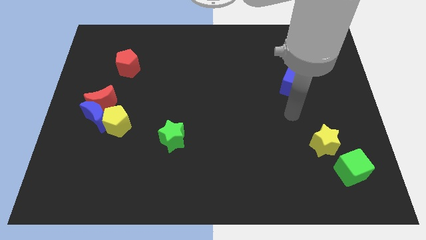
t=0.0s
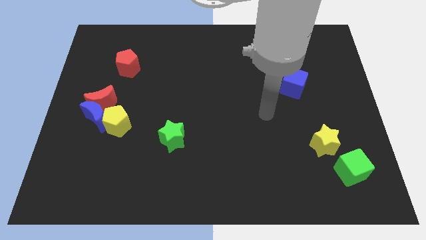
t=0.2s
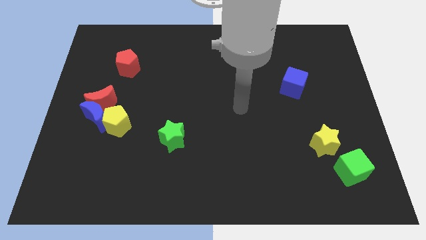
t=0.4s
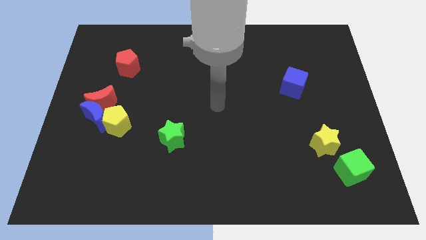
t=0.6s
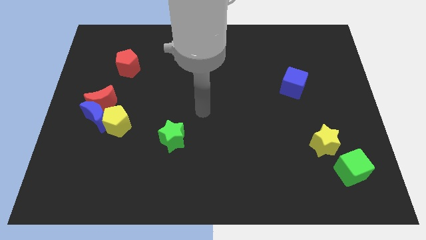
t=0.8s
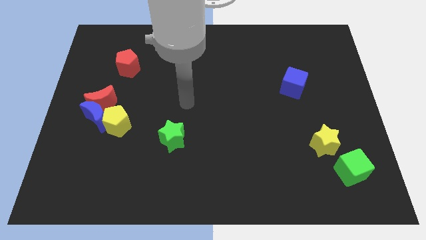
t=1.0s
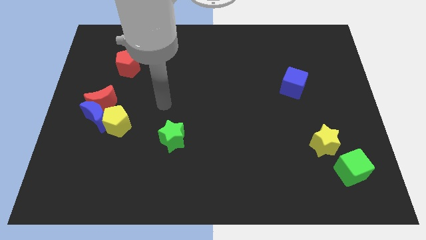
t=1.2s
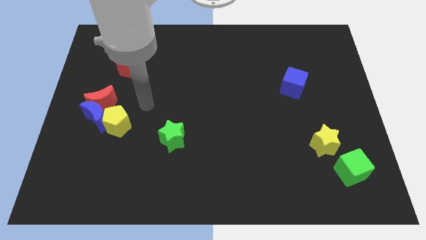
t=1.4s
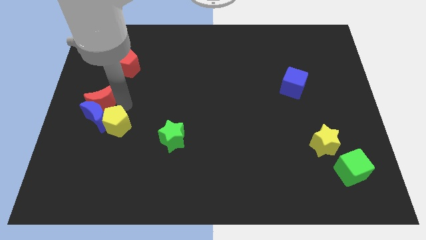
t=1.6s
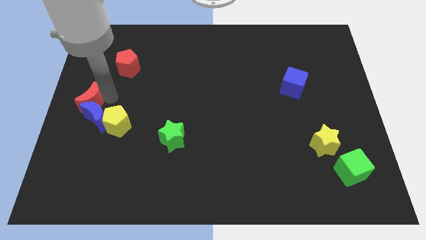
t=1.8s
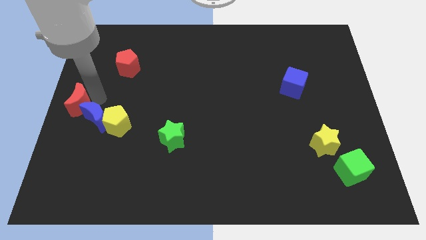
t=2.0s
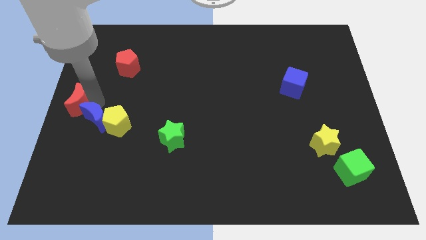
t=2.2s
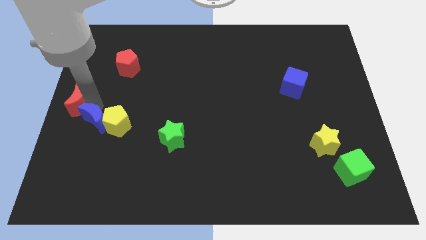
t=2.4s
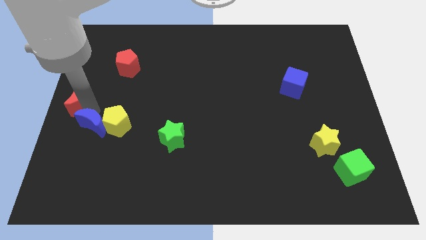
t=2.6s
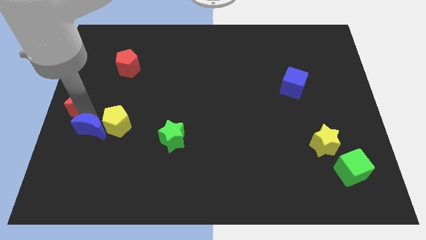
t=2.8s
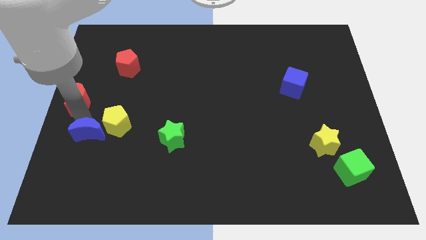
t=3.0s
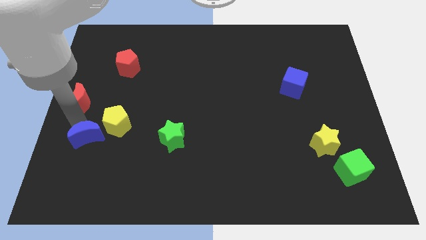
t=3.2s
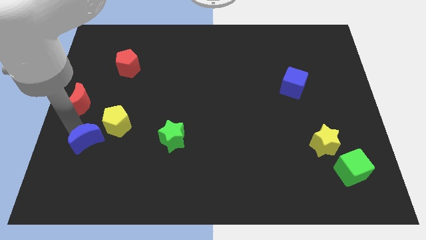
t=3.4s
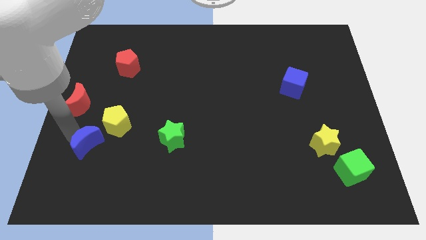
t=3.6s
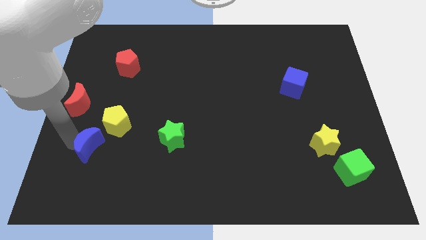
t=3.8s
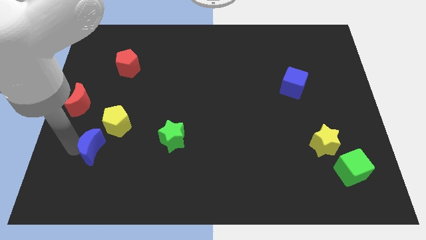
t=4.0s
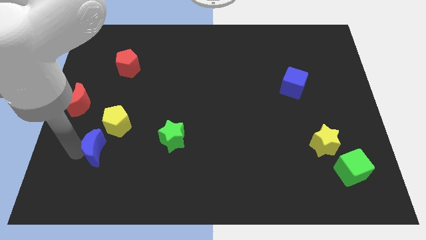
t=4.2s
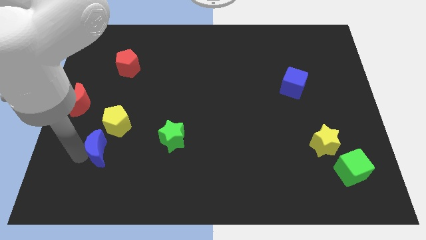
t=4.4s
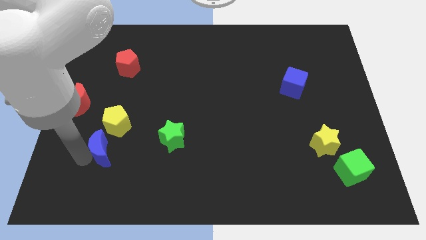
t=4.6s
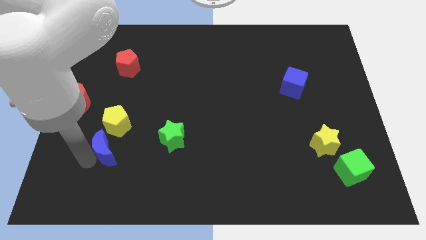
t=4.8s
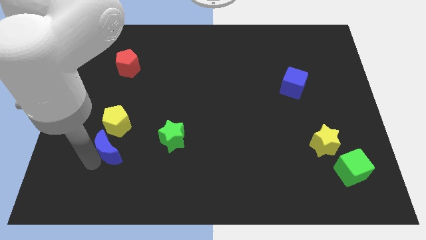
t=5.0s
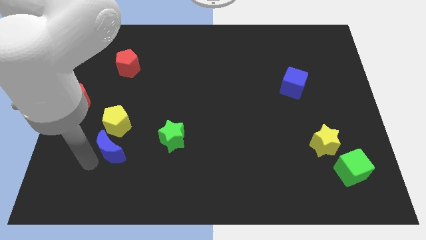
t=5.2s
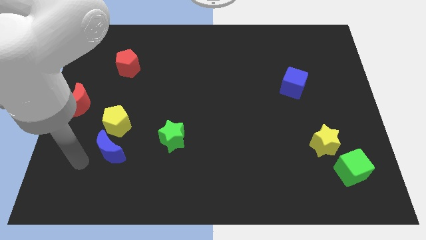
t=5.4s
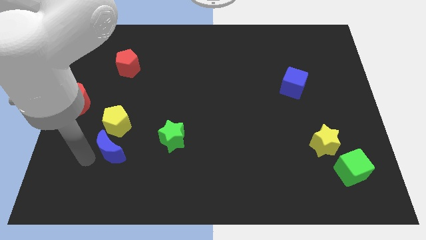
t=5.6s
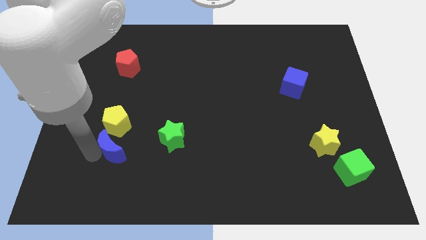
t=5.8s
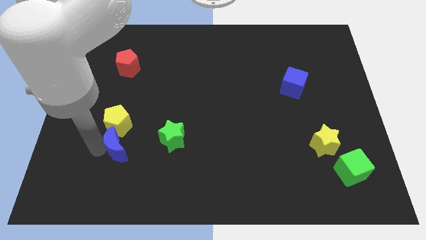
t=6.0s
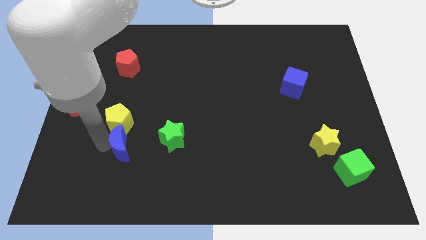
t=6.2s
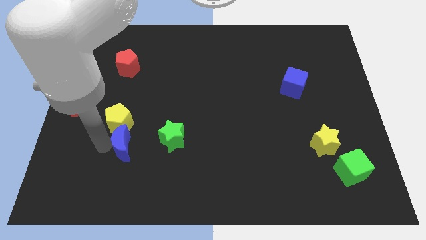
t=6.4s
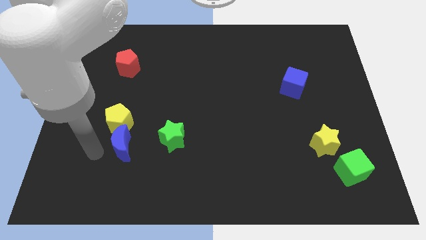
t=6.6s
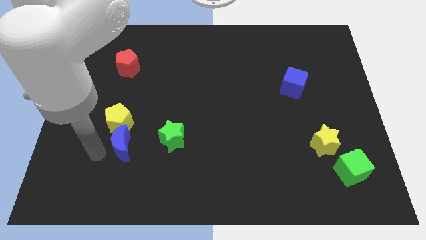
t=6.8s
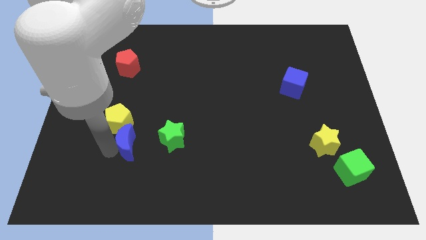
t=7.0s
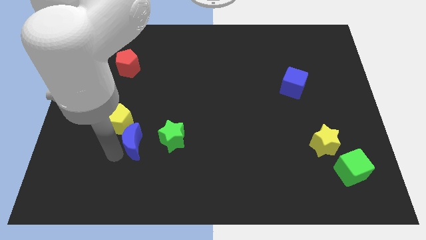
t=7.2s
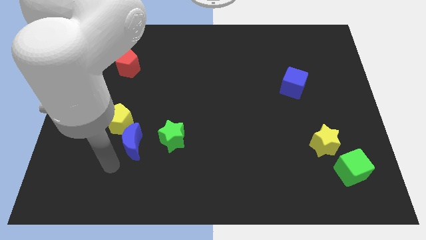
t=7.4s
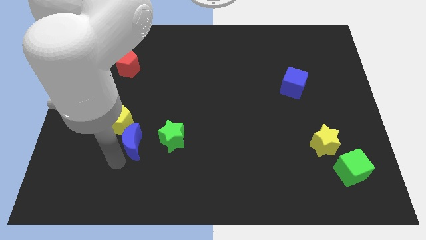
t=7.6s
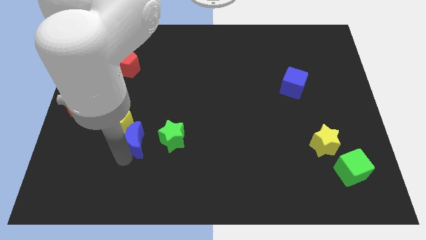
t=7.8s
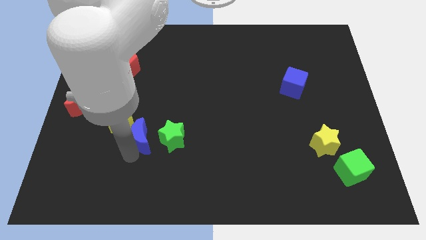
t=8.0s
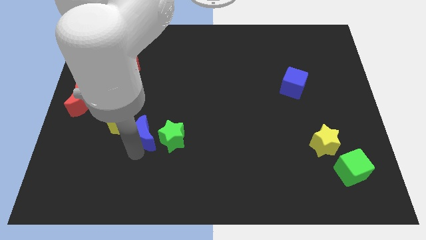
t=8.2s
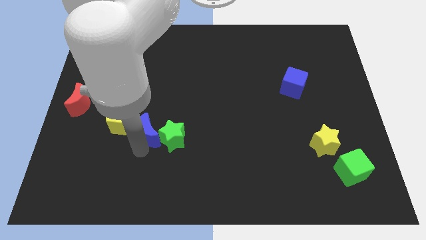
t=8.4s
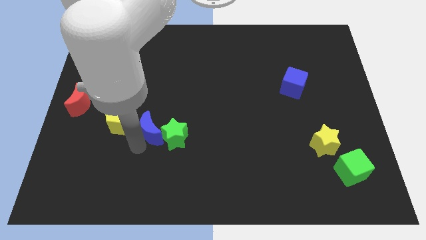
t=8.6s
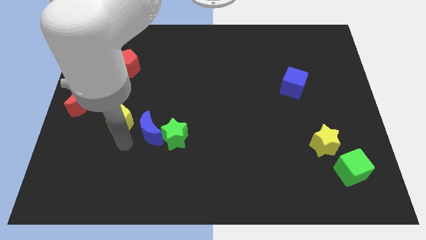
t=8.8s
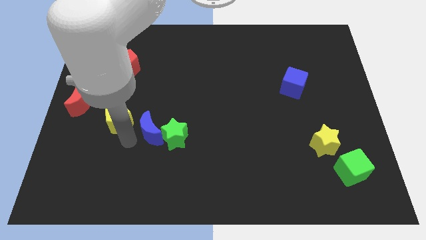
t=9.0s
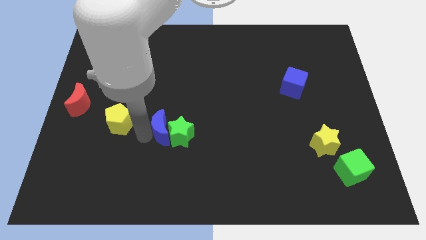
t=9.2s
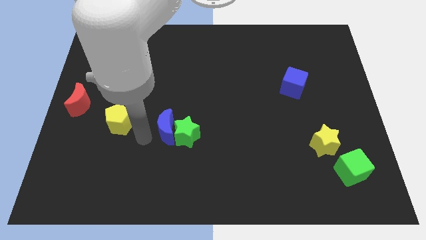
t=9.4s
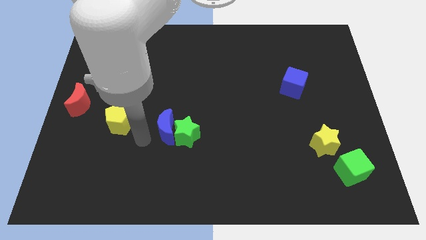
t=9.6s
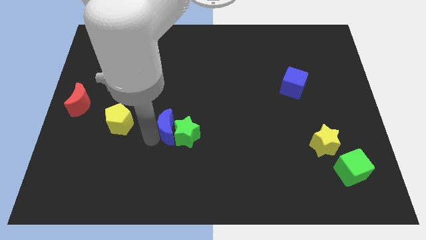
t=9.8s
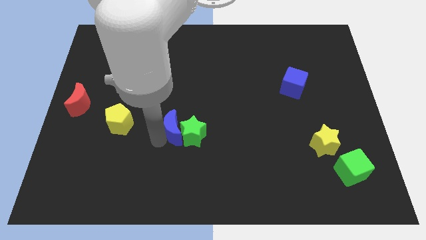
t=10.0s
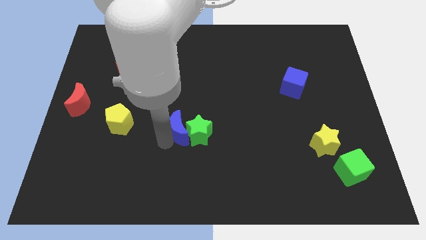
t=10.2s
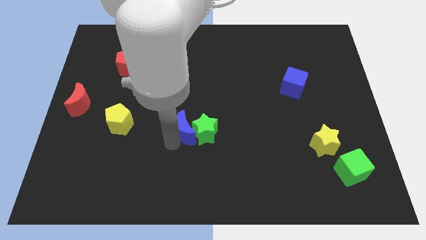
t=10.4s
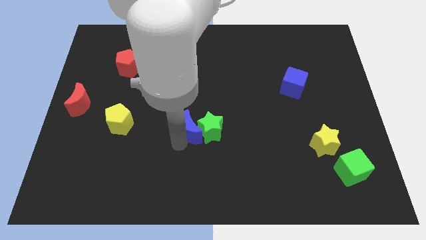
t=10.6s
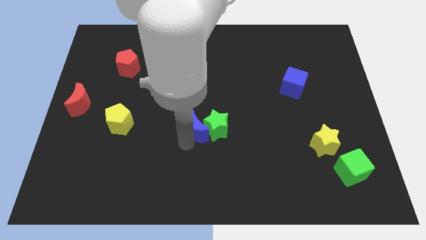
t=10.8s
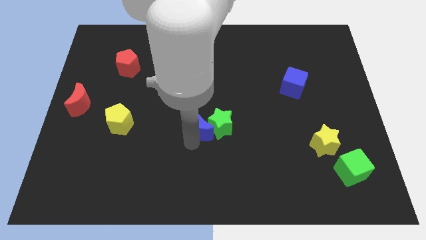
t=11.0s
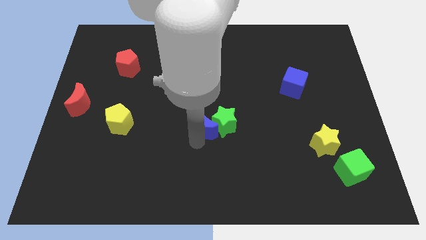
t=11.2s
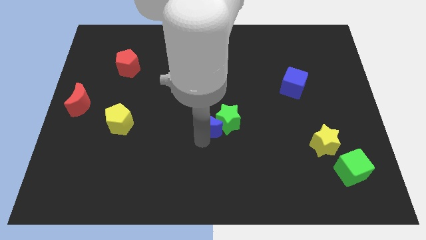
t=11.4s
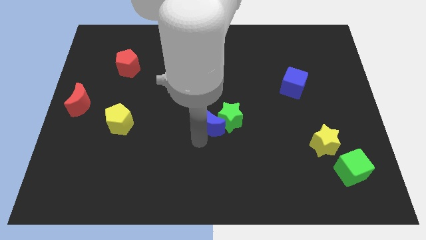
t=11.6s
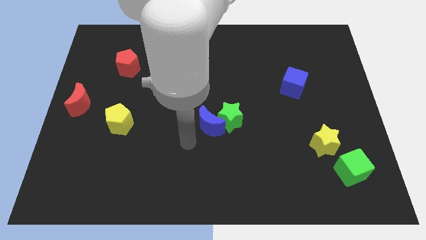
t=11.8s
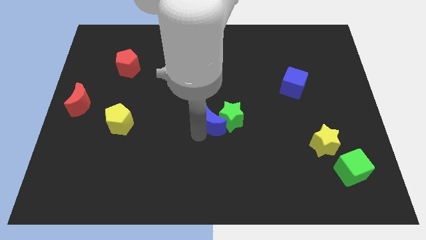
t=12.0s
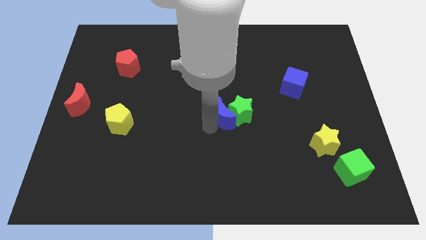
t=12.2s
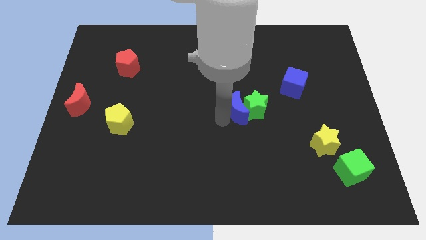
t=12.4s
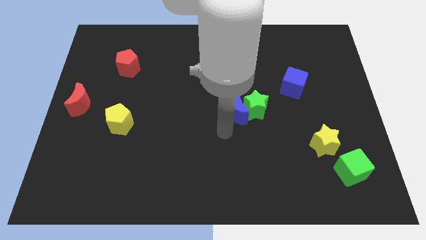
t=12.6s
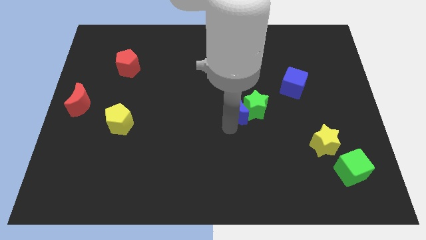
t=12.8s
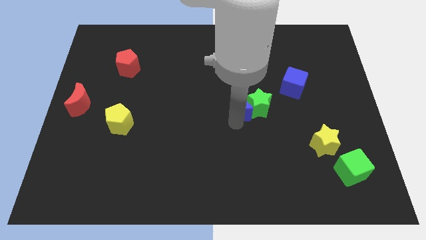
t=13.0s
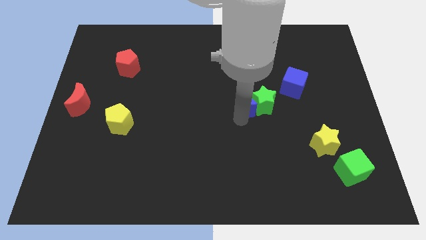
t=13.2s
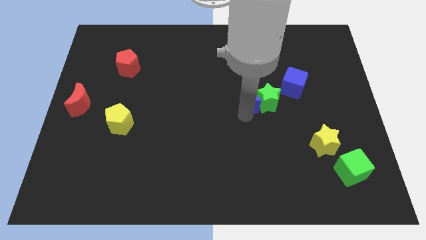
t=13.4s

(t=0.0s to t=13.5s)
put the blue moon to the left side of the blue cube

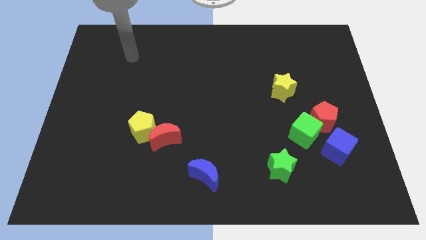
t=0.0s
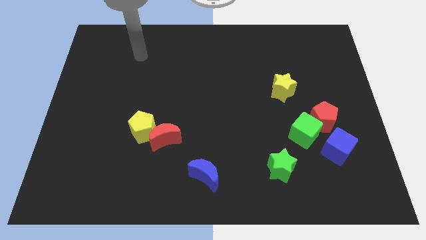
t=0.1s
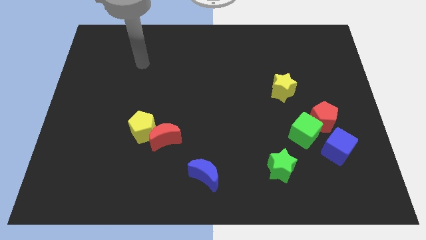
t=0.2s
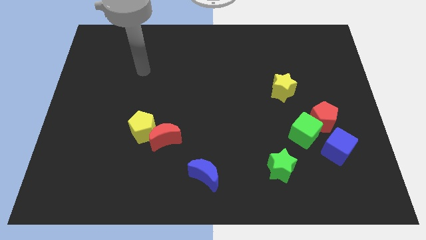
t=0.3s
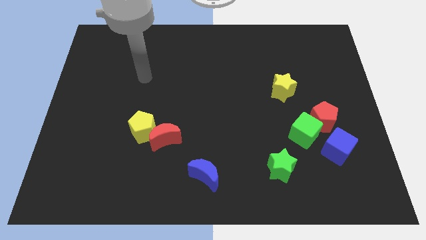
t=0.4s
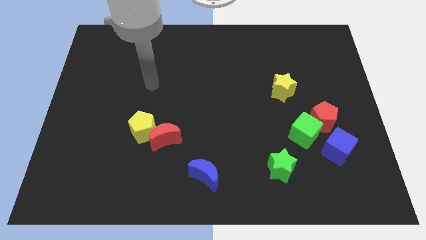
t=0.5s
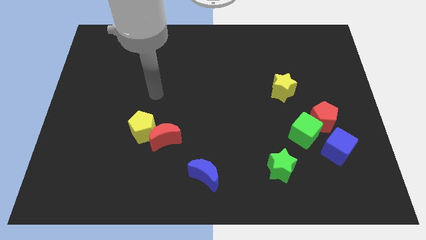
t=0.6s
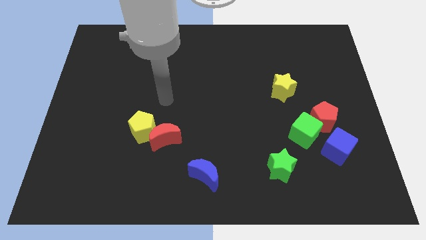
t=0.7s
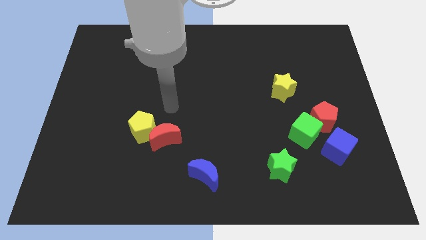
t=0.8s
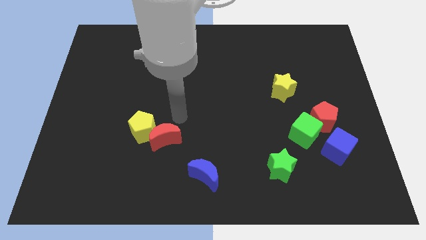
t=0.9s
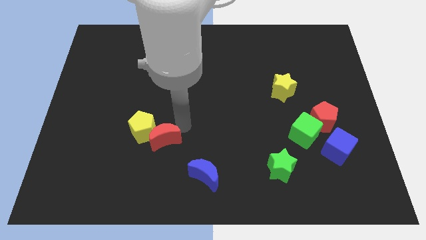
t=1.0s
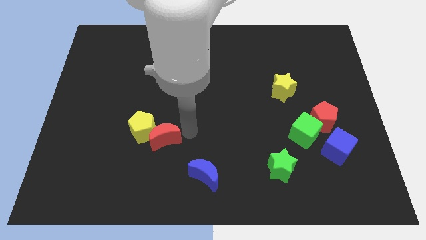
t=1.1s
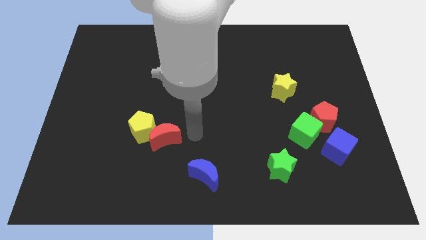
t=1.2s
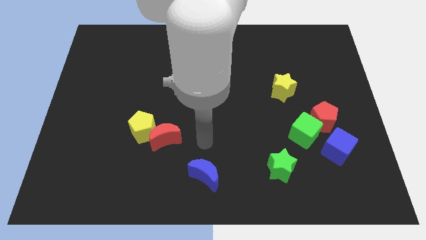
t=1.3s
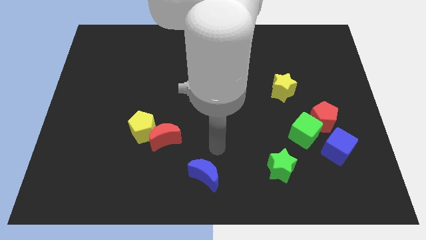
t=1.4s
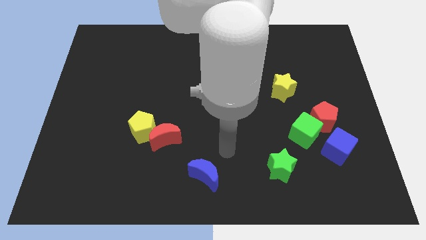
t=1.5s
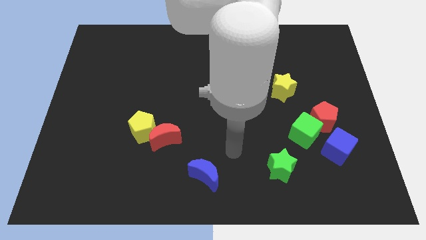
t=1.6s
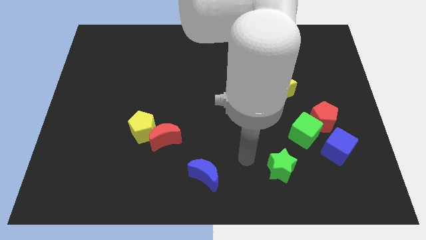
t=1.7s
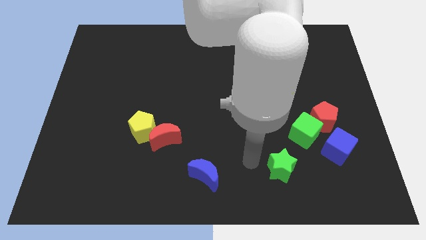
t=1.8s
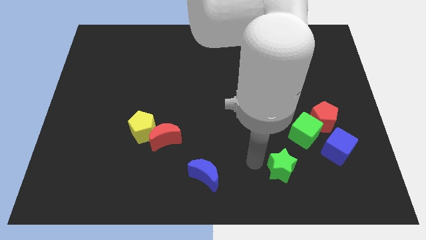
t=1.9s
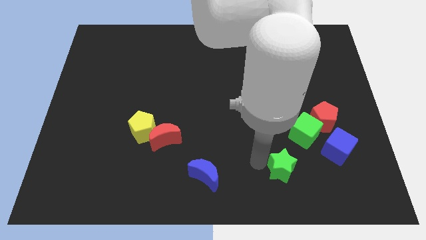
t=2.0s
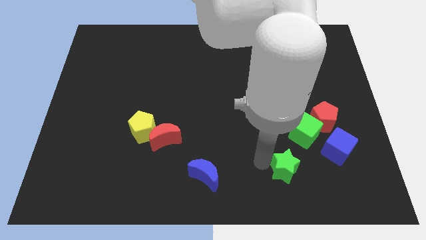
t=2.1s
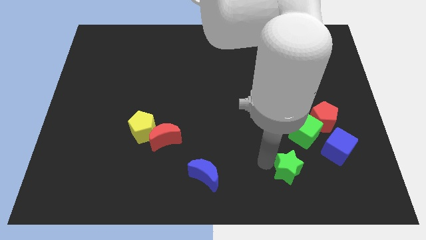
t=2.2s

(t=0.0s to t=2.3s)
put the green star to the bottom side of the green cube
